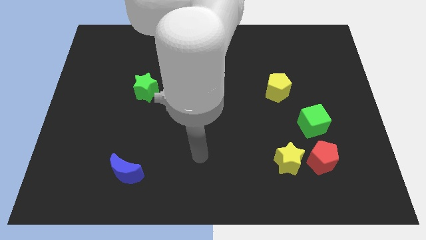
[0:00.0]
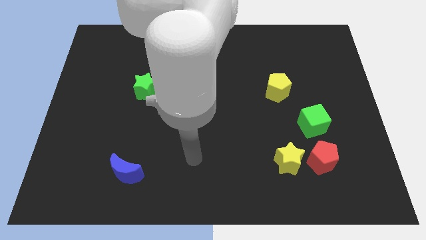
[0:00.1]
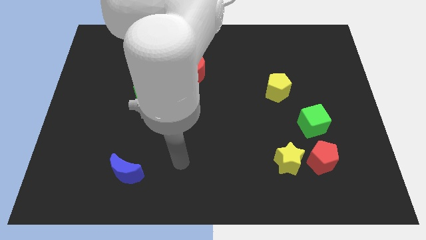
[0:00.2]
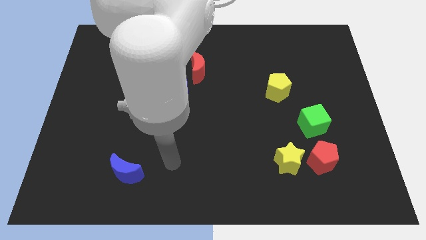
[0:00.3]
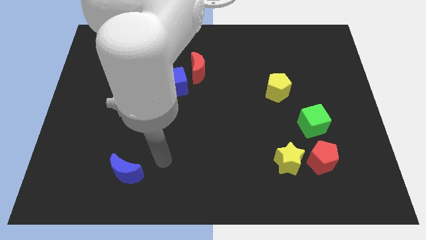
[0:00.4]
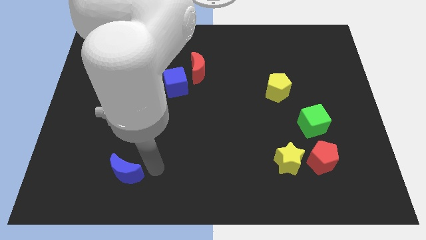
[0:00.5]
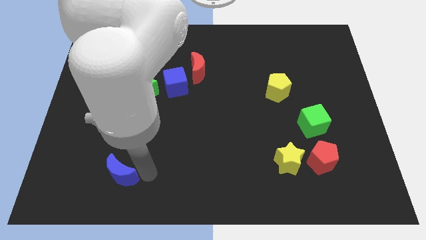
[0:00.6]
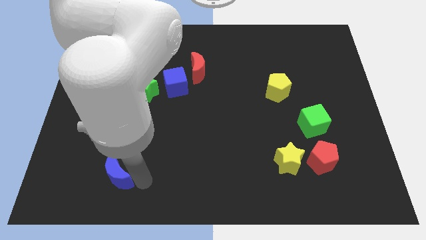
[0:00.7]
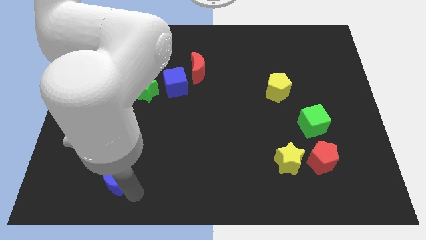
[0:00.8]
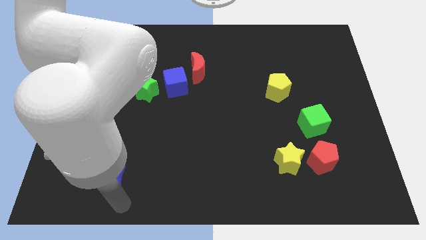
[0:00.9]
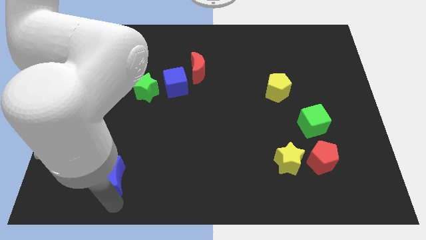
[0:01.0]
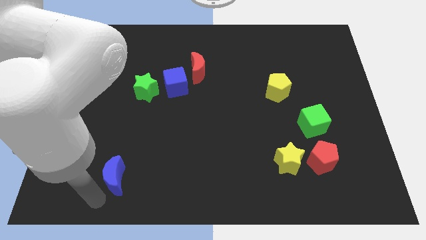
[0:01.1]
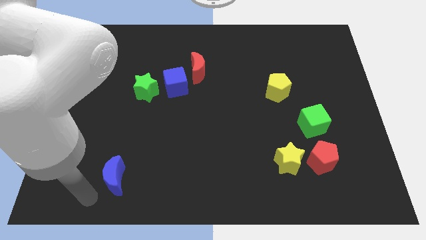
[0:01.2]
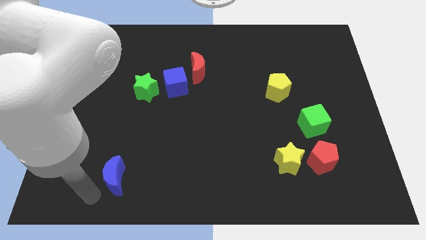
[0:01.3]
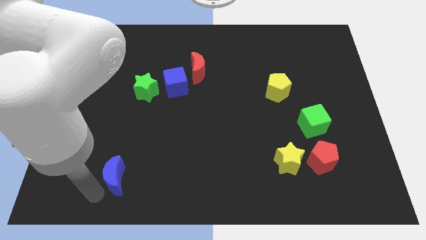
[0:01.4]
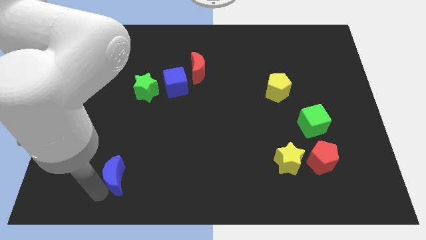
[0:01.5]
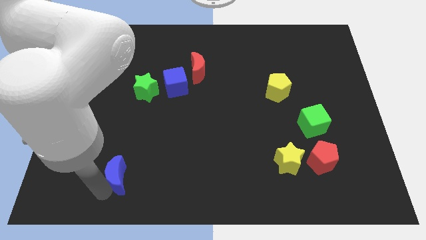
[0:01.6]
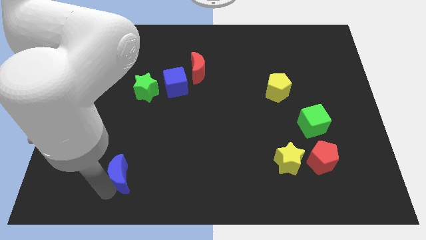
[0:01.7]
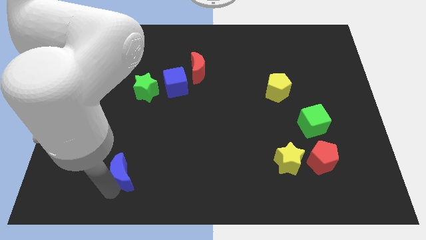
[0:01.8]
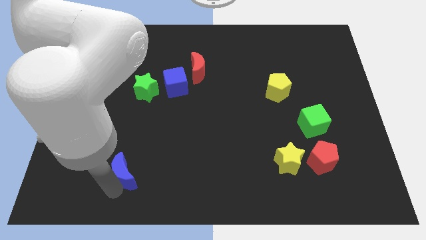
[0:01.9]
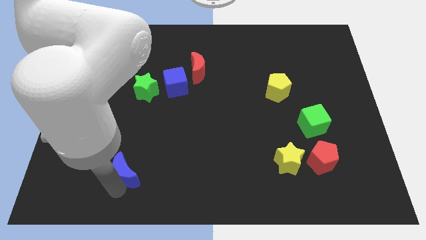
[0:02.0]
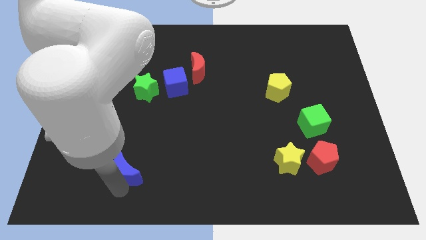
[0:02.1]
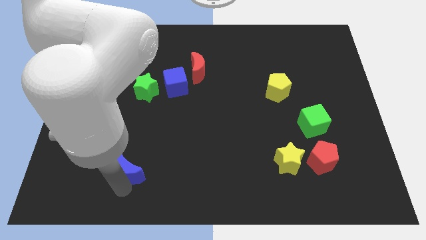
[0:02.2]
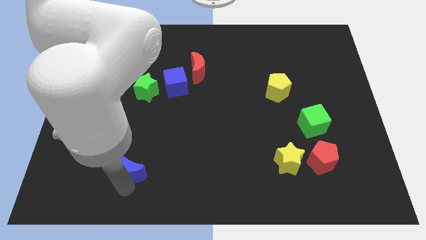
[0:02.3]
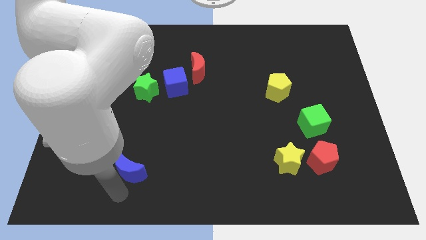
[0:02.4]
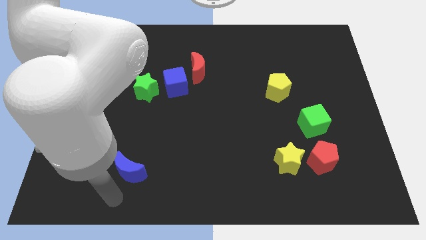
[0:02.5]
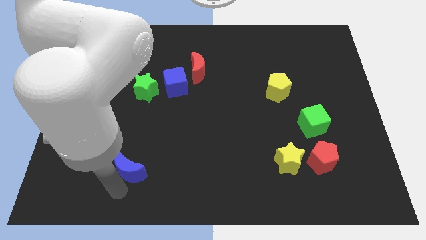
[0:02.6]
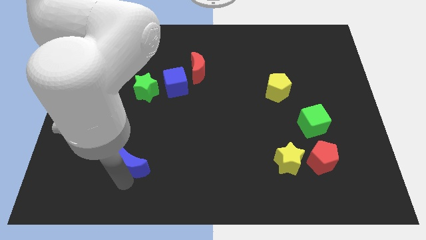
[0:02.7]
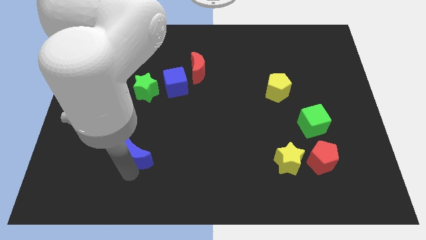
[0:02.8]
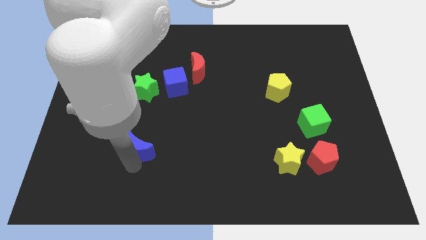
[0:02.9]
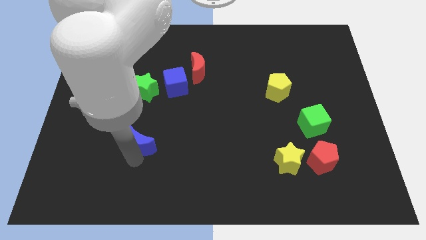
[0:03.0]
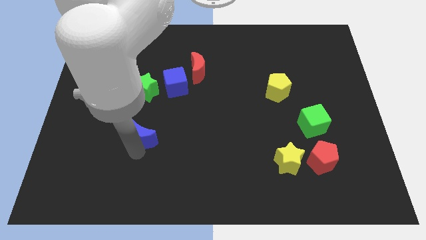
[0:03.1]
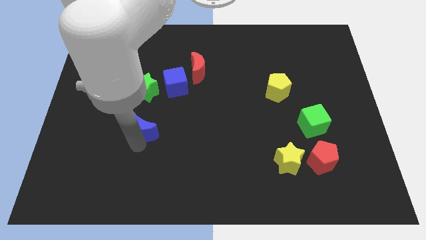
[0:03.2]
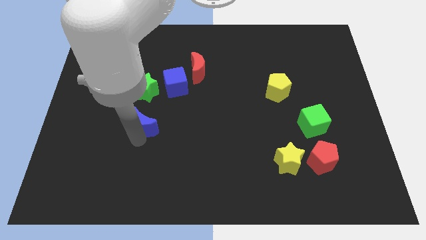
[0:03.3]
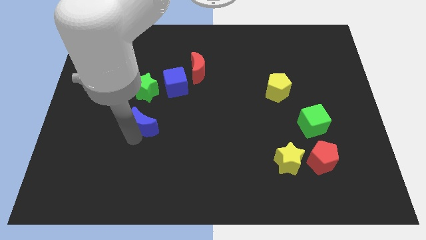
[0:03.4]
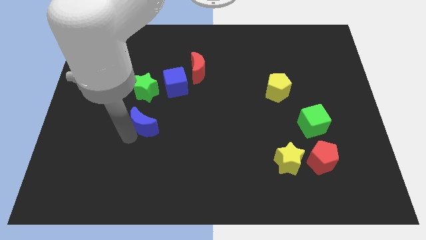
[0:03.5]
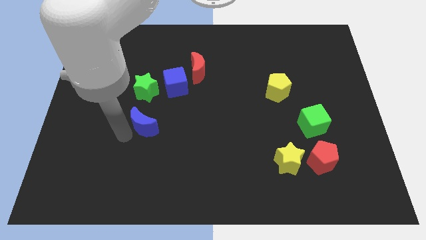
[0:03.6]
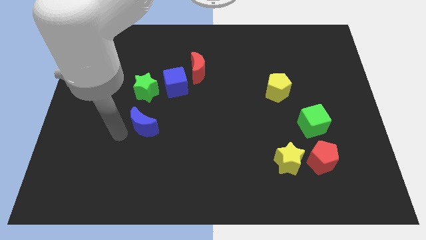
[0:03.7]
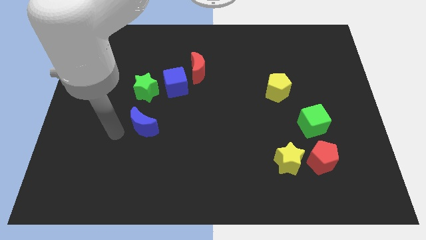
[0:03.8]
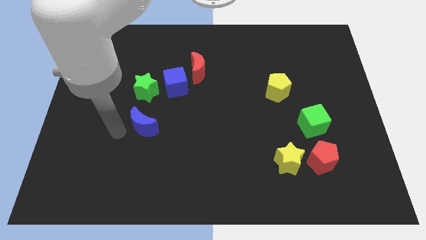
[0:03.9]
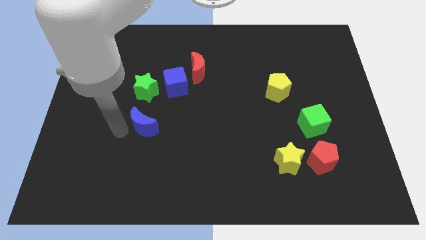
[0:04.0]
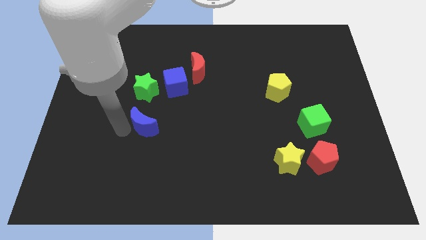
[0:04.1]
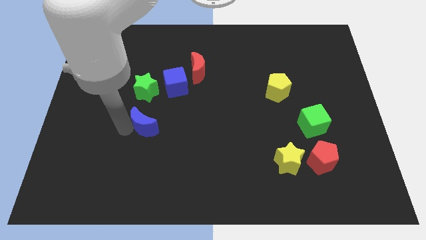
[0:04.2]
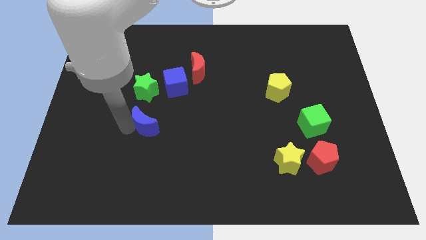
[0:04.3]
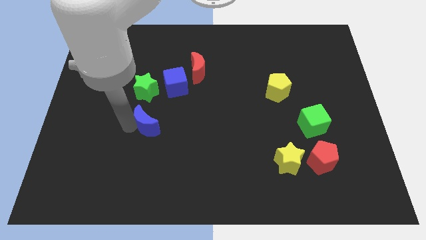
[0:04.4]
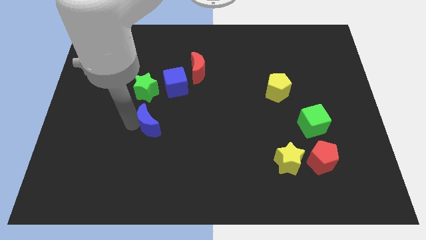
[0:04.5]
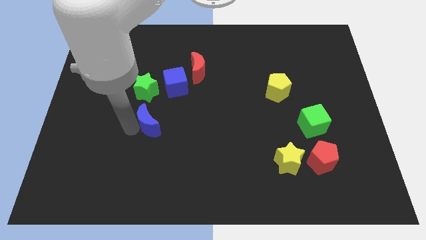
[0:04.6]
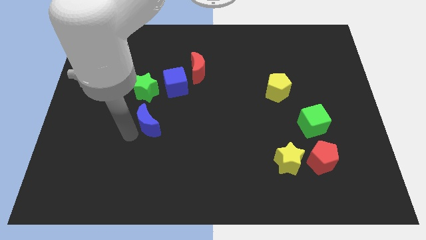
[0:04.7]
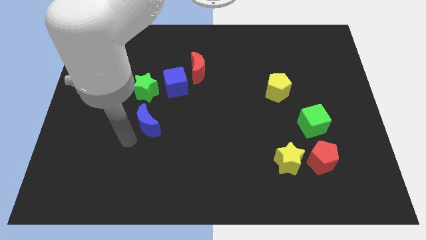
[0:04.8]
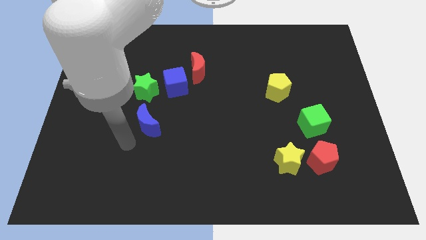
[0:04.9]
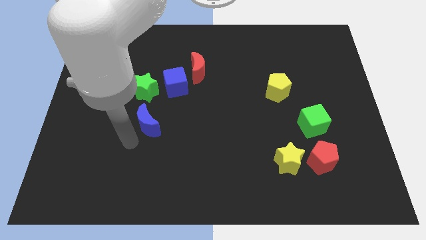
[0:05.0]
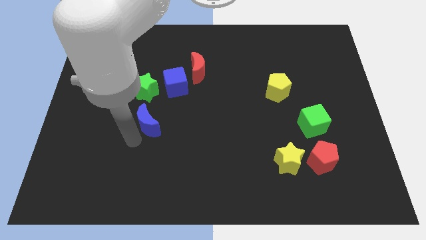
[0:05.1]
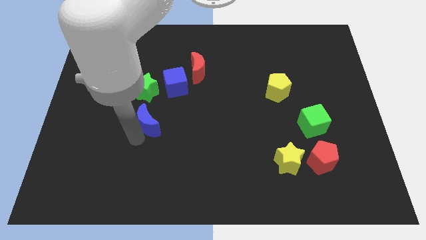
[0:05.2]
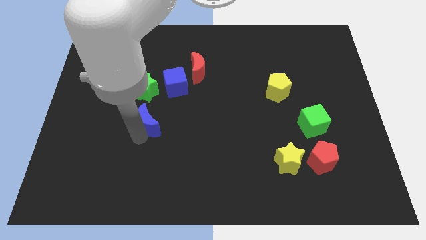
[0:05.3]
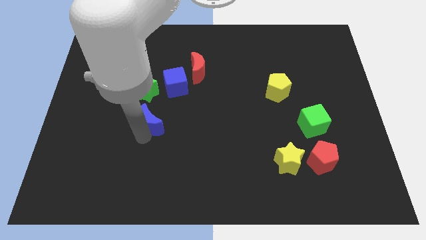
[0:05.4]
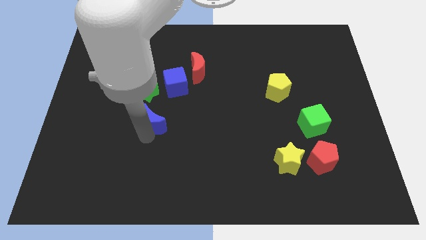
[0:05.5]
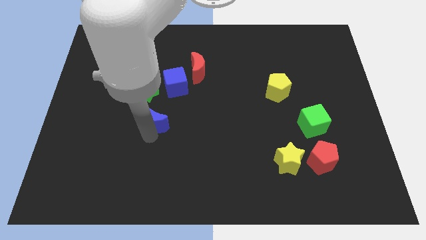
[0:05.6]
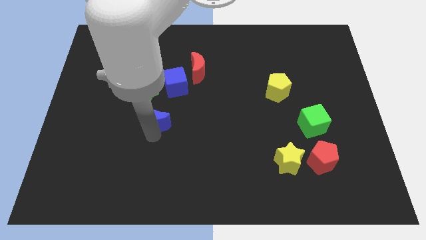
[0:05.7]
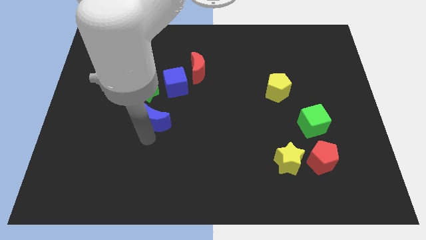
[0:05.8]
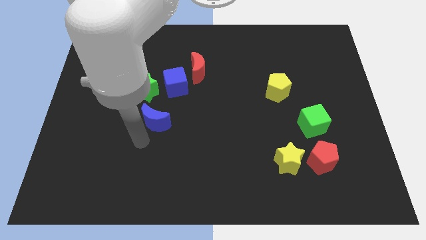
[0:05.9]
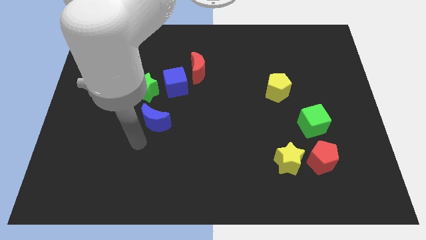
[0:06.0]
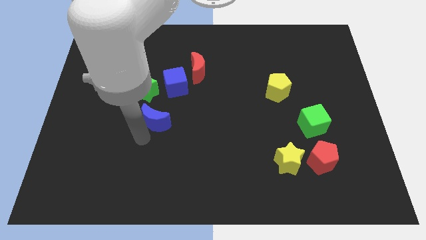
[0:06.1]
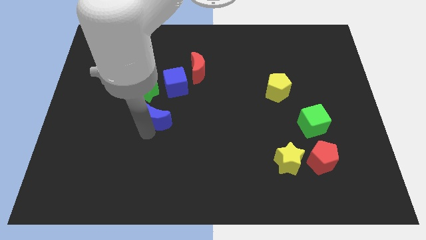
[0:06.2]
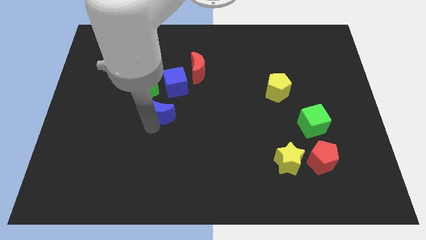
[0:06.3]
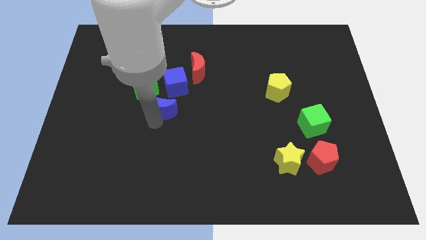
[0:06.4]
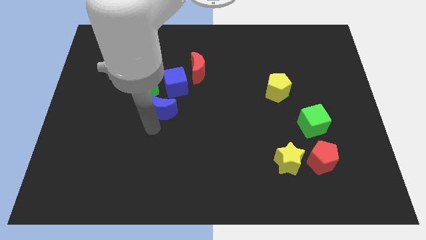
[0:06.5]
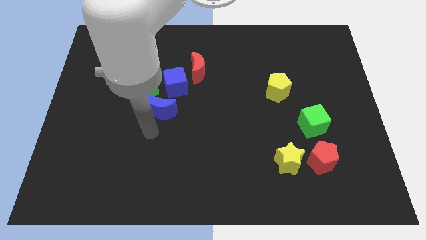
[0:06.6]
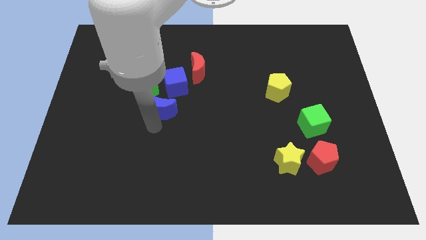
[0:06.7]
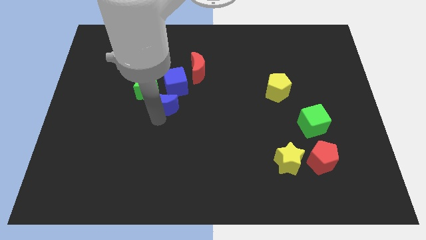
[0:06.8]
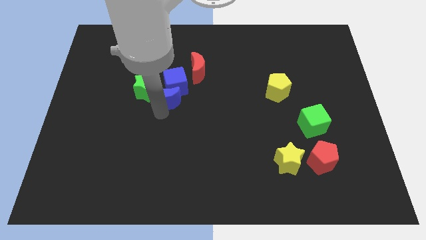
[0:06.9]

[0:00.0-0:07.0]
move the blue moon towards the blue cube
